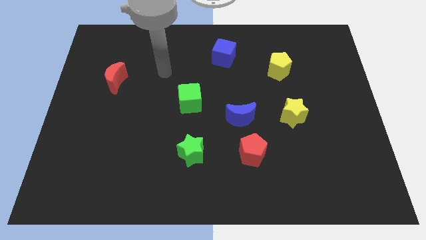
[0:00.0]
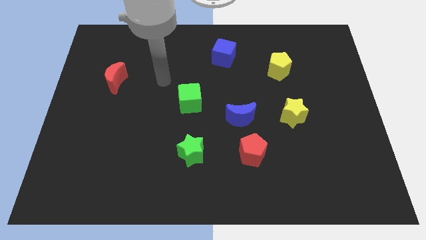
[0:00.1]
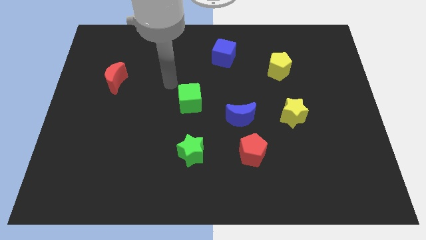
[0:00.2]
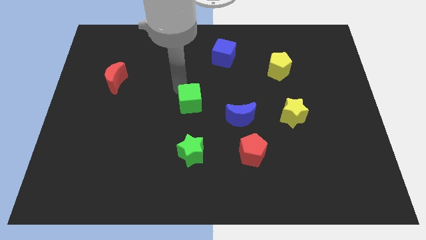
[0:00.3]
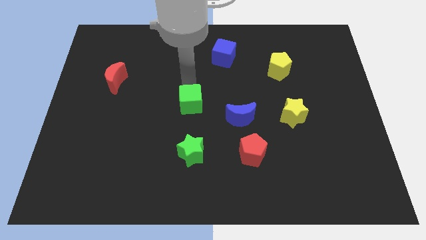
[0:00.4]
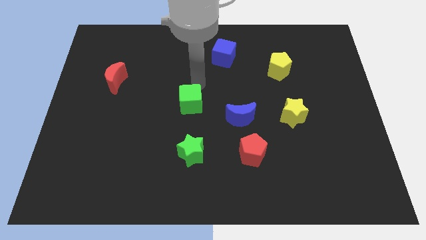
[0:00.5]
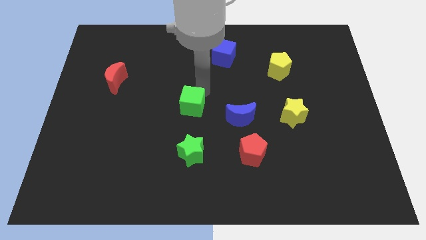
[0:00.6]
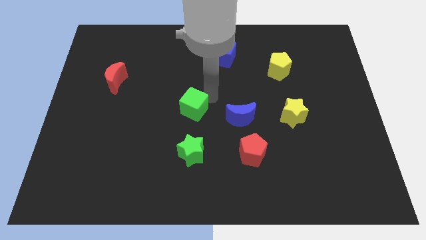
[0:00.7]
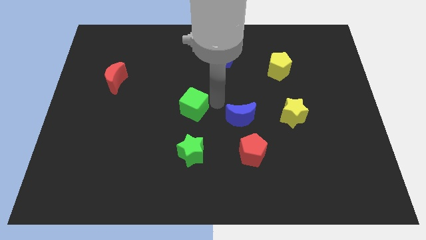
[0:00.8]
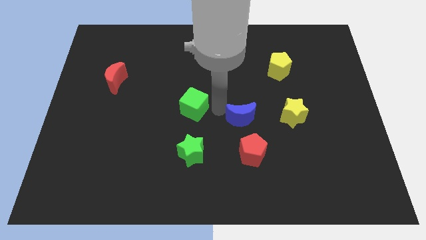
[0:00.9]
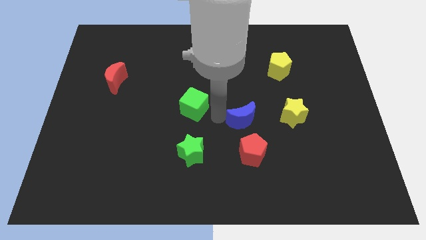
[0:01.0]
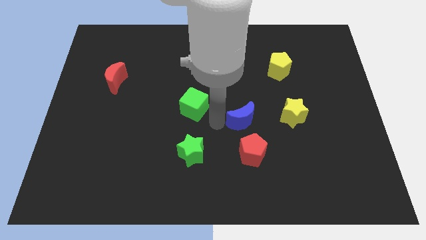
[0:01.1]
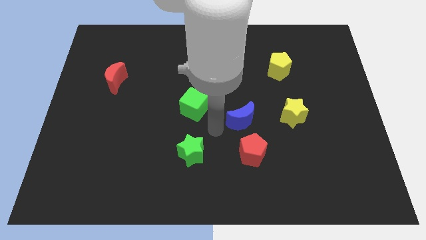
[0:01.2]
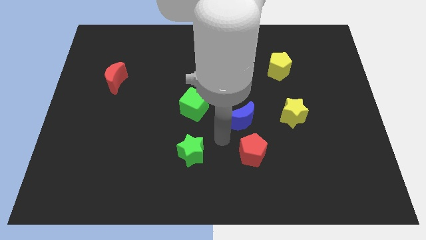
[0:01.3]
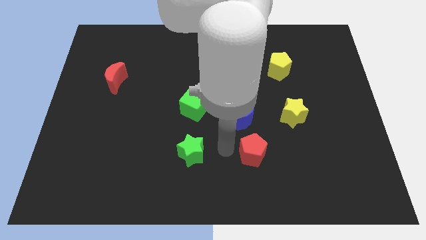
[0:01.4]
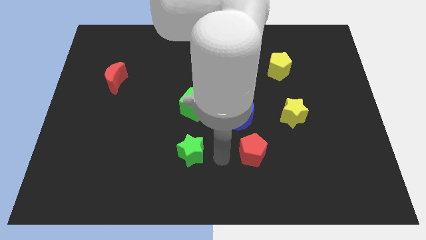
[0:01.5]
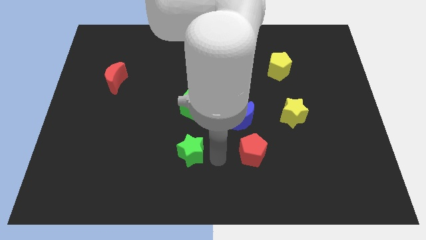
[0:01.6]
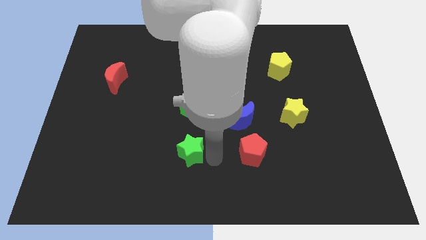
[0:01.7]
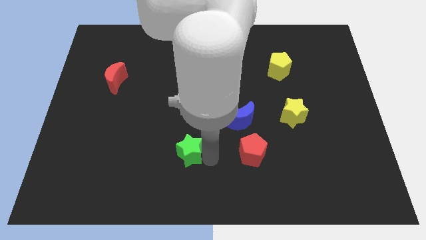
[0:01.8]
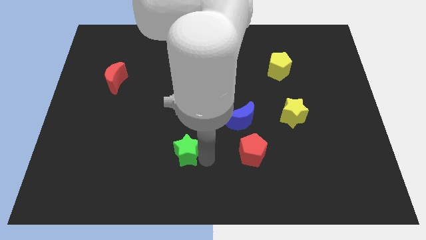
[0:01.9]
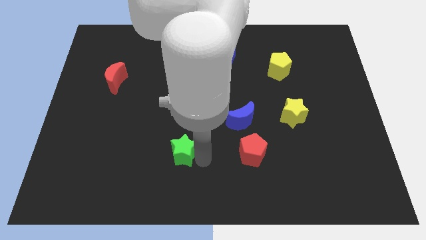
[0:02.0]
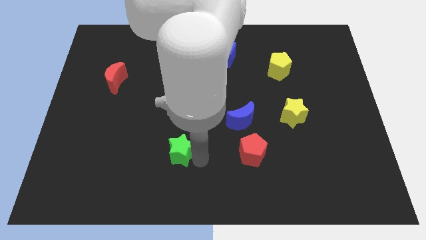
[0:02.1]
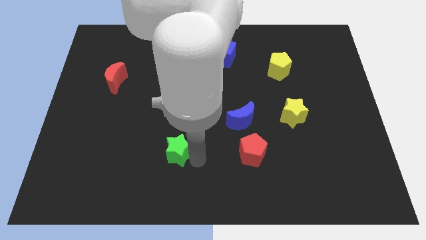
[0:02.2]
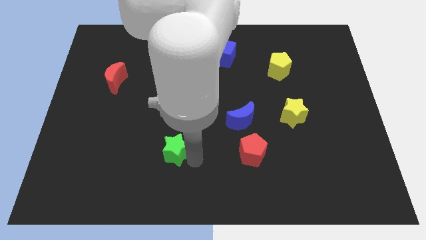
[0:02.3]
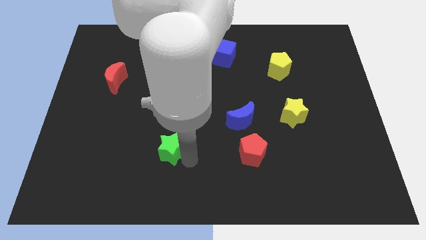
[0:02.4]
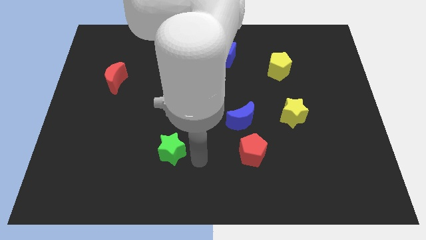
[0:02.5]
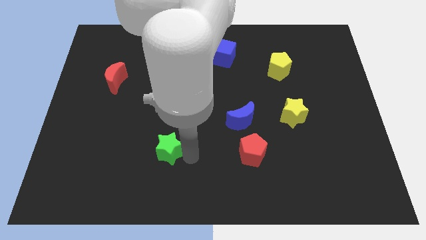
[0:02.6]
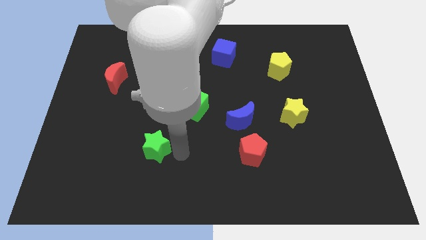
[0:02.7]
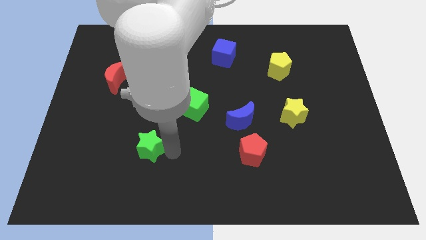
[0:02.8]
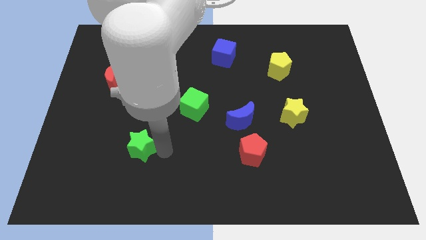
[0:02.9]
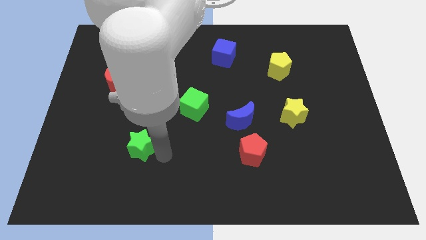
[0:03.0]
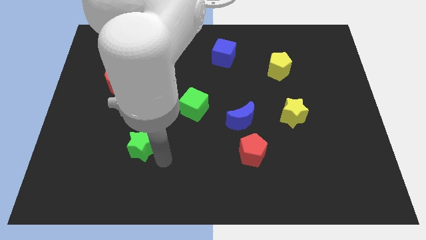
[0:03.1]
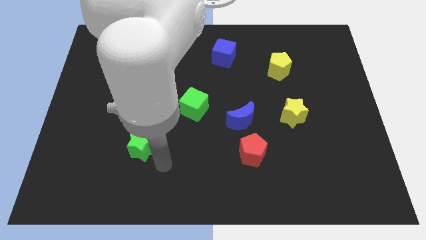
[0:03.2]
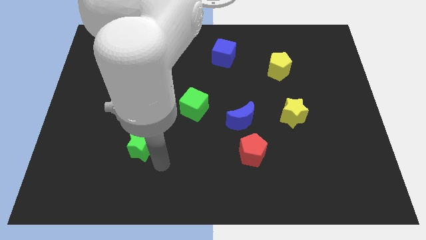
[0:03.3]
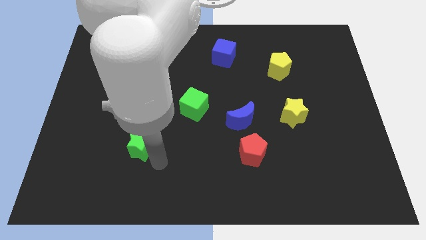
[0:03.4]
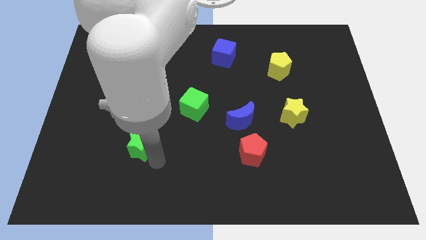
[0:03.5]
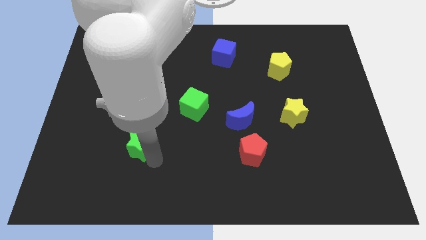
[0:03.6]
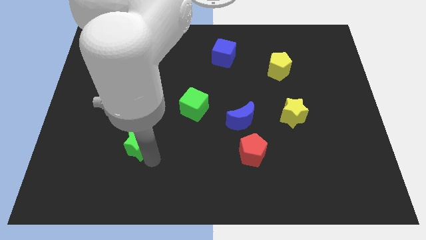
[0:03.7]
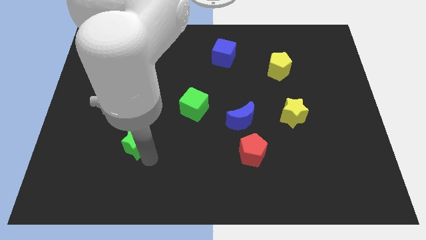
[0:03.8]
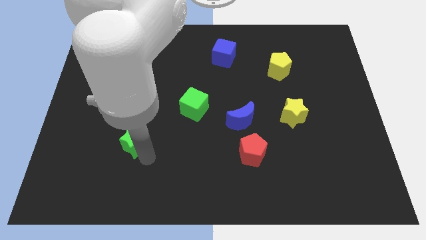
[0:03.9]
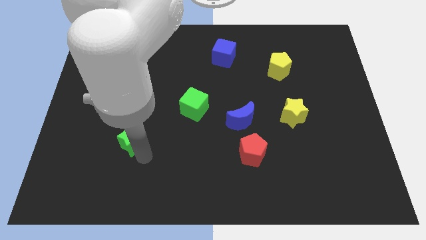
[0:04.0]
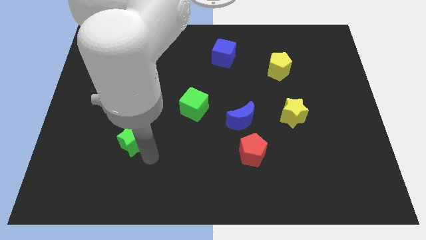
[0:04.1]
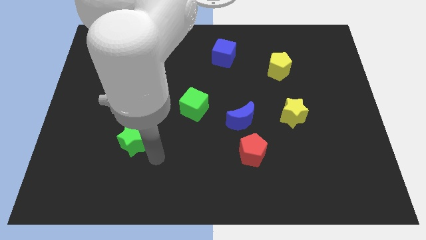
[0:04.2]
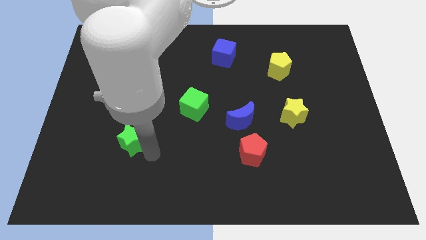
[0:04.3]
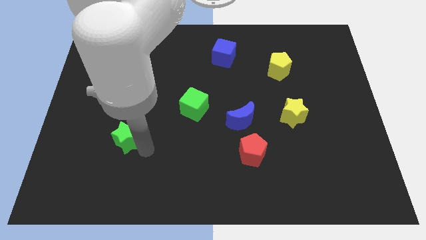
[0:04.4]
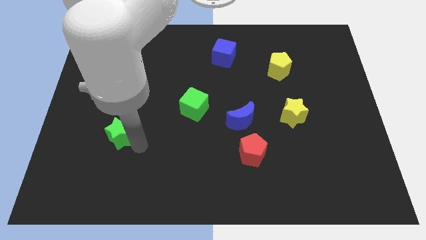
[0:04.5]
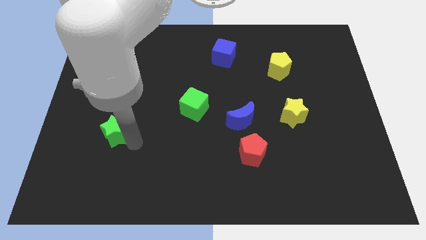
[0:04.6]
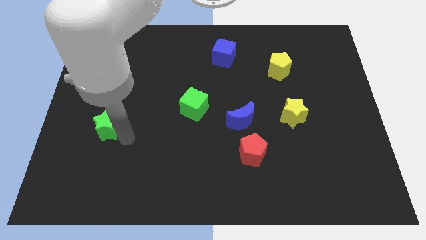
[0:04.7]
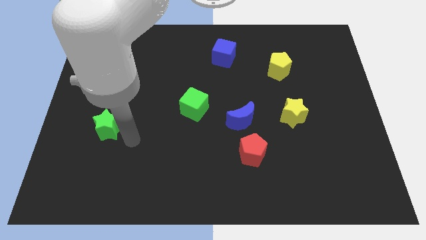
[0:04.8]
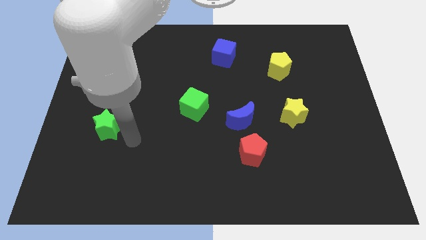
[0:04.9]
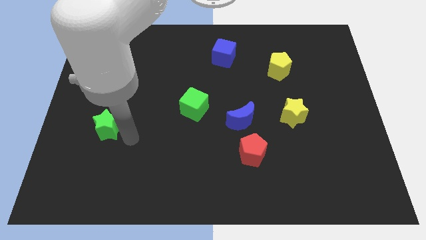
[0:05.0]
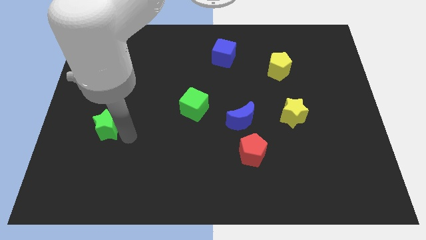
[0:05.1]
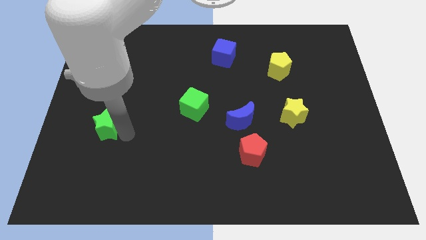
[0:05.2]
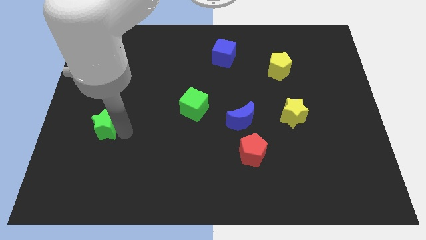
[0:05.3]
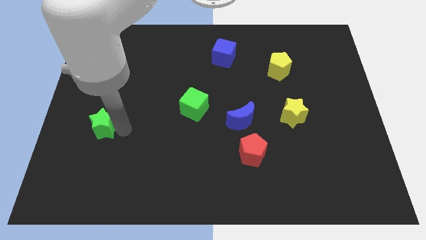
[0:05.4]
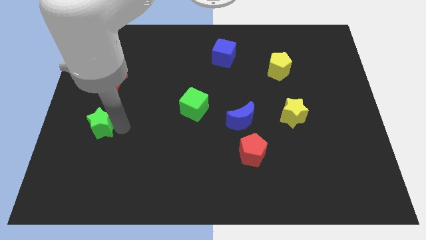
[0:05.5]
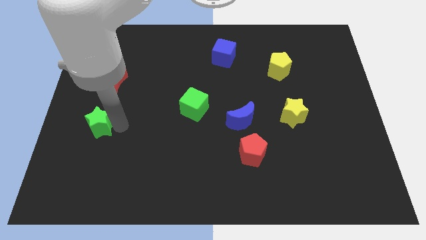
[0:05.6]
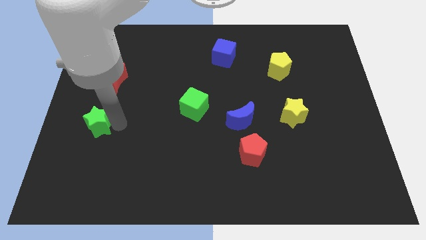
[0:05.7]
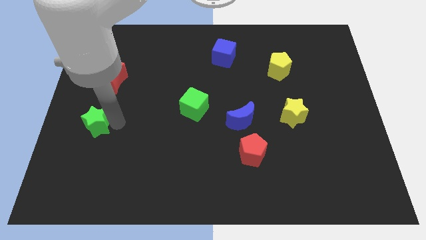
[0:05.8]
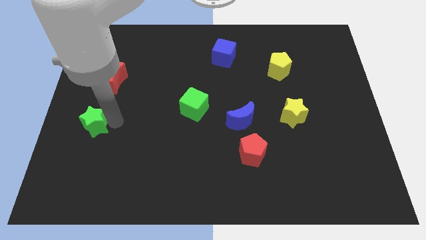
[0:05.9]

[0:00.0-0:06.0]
slide the green star to the center left
